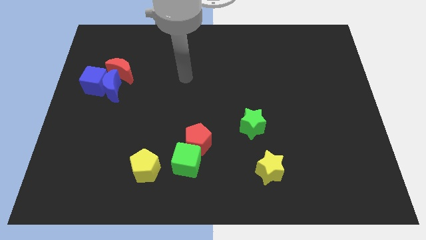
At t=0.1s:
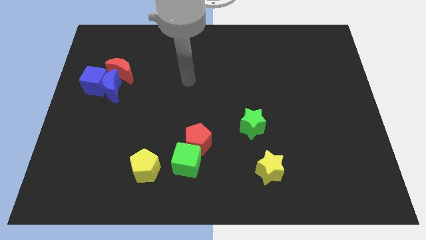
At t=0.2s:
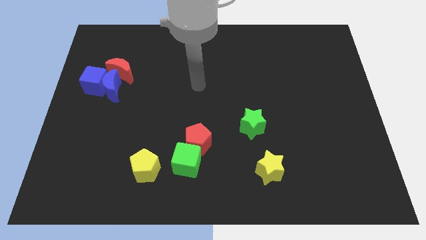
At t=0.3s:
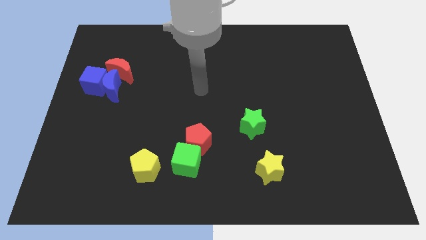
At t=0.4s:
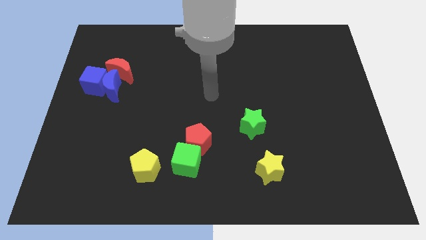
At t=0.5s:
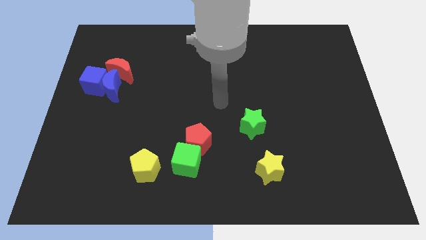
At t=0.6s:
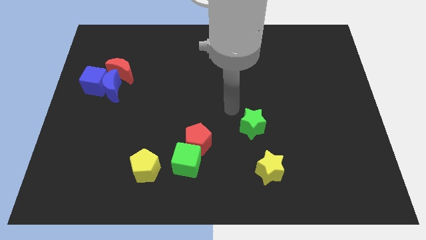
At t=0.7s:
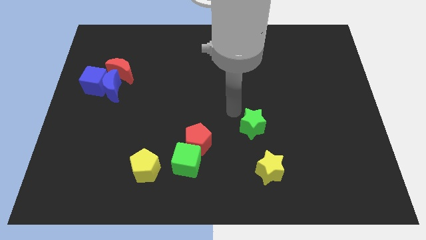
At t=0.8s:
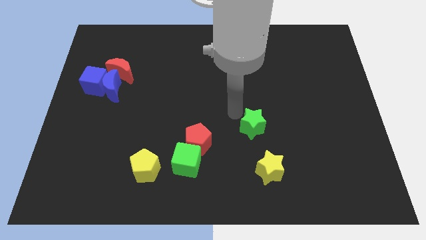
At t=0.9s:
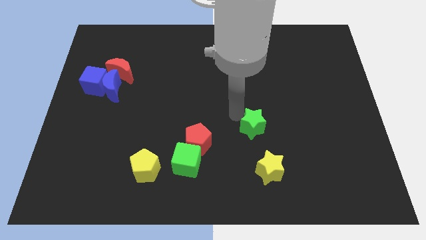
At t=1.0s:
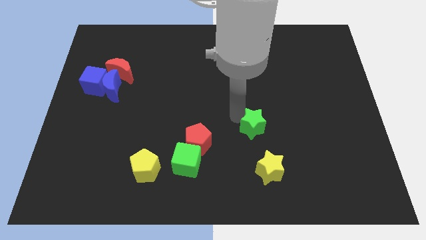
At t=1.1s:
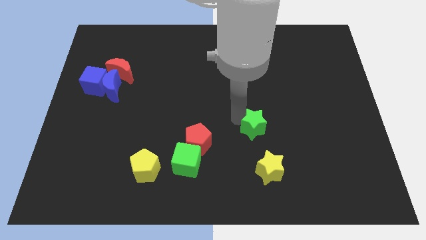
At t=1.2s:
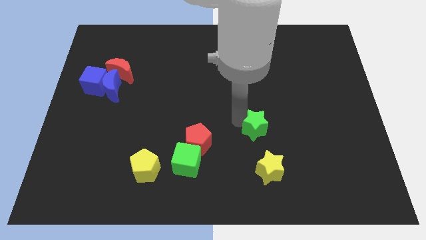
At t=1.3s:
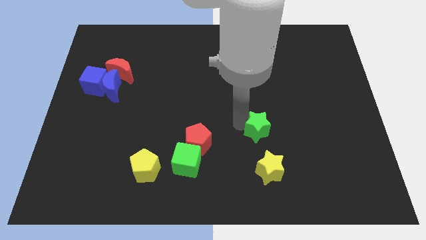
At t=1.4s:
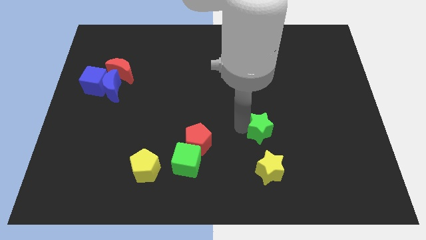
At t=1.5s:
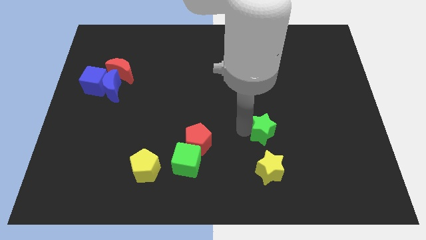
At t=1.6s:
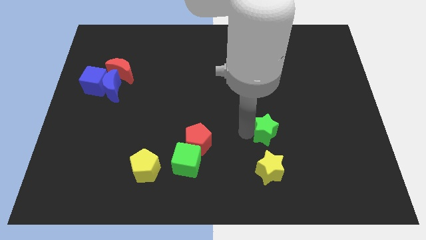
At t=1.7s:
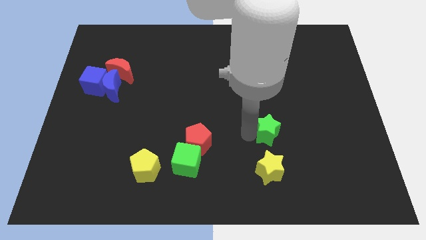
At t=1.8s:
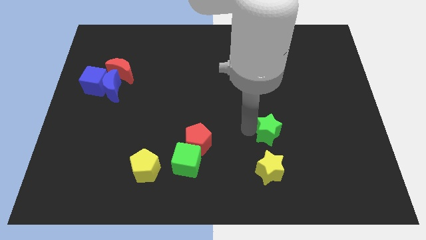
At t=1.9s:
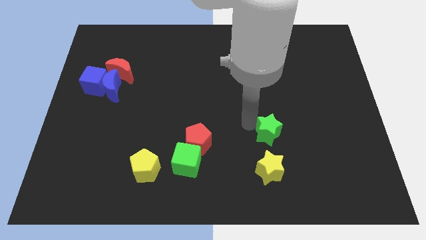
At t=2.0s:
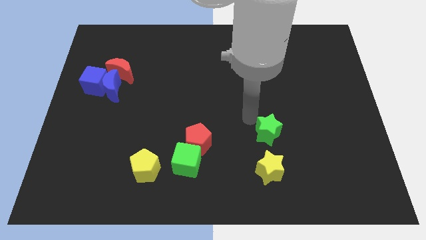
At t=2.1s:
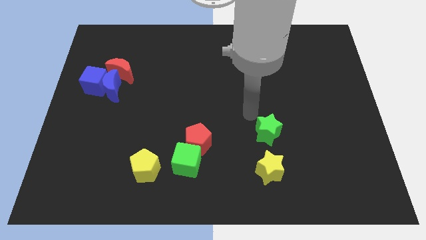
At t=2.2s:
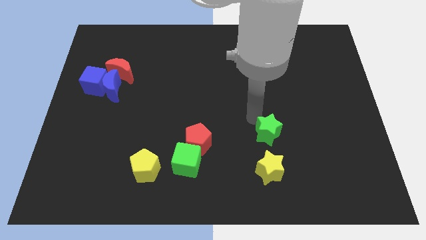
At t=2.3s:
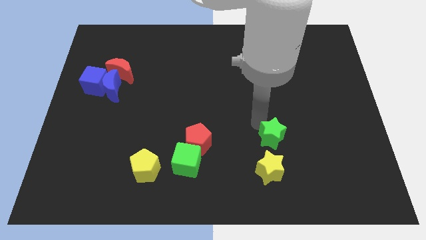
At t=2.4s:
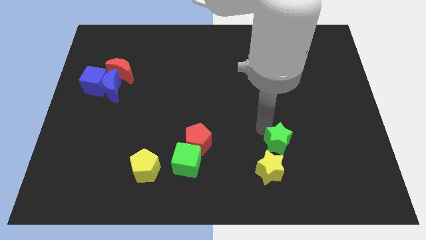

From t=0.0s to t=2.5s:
move the green star a little bit downwards and to the right

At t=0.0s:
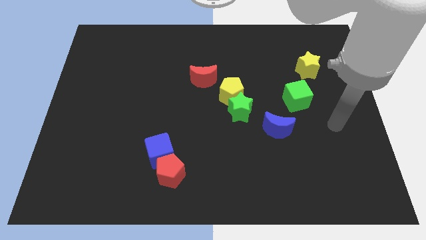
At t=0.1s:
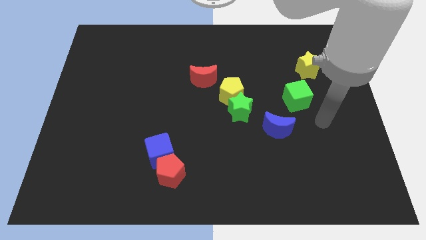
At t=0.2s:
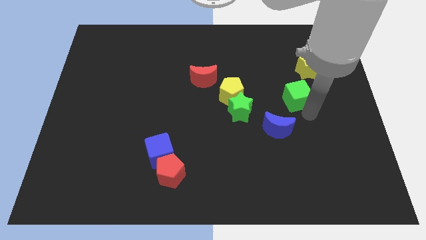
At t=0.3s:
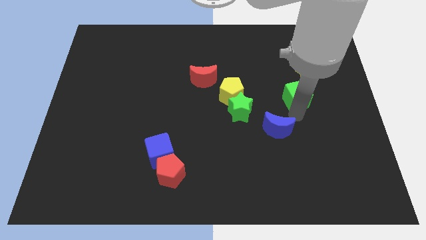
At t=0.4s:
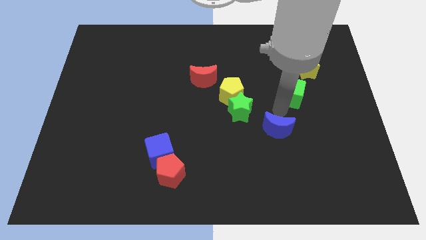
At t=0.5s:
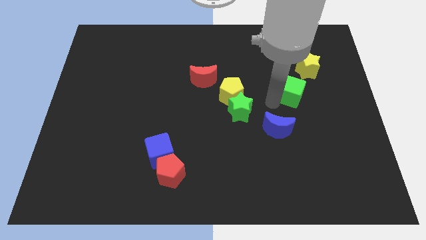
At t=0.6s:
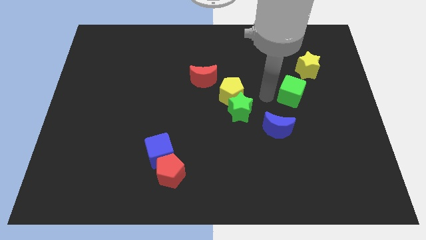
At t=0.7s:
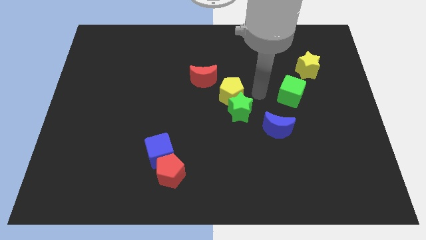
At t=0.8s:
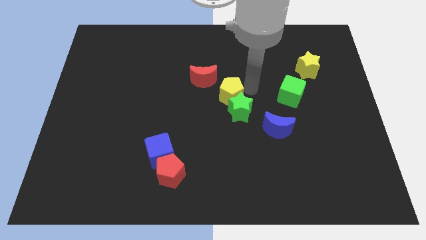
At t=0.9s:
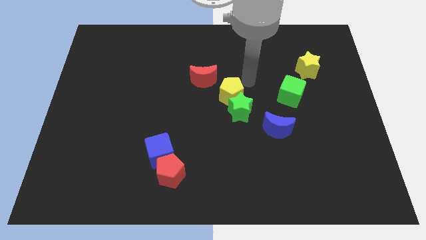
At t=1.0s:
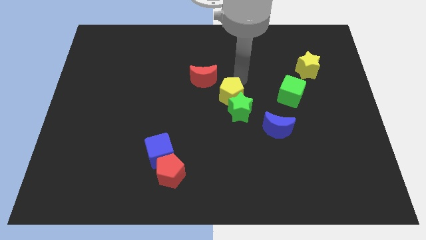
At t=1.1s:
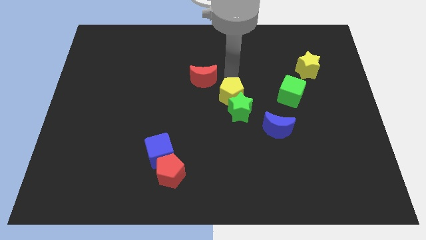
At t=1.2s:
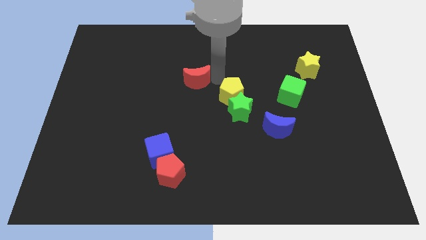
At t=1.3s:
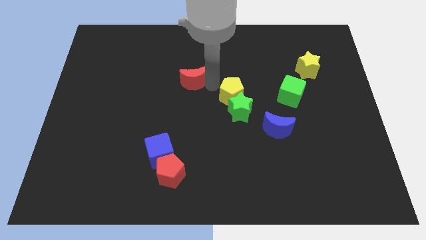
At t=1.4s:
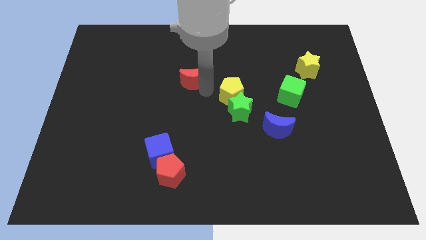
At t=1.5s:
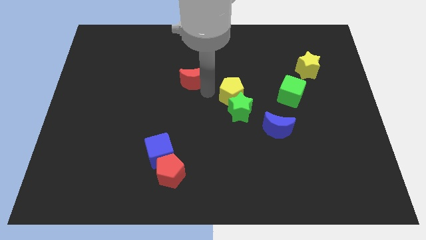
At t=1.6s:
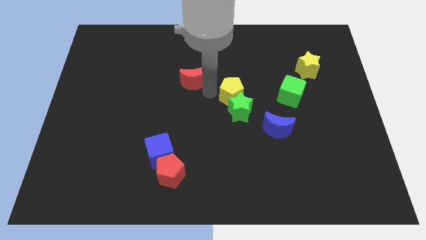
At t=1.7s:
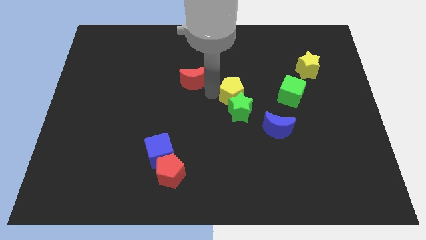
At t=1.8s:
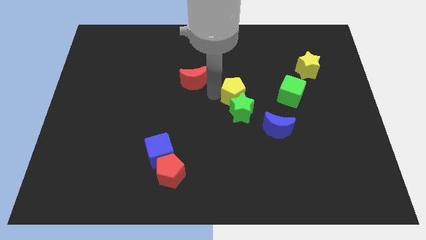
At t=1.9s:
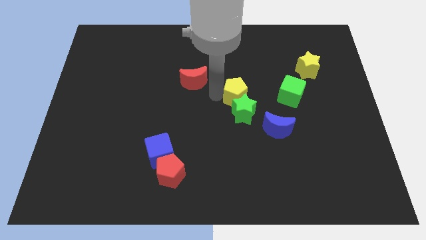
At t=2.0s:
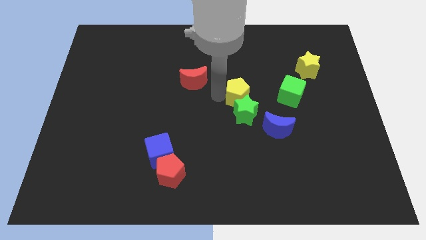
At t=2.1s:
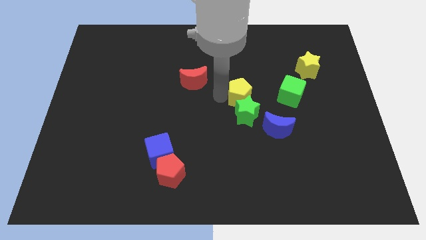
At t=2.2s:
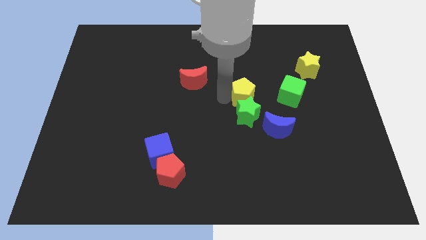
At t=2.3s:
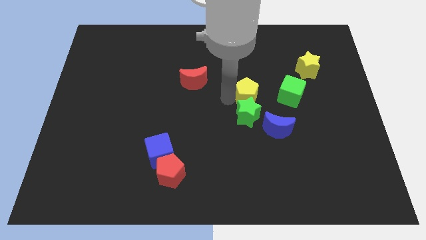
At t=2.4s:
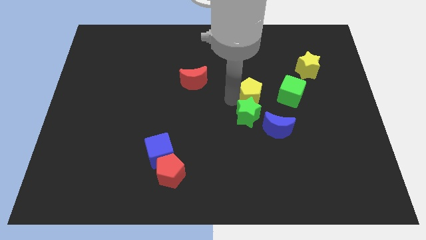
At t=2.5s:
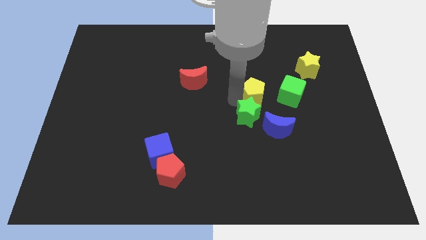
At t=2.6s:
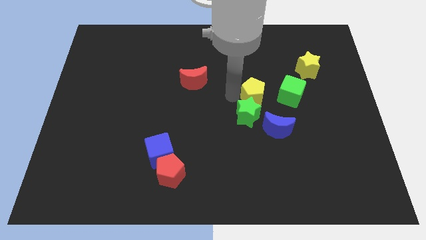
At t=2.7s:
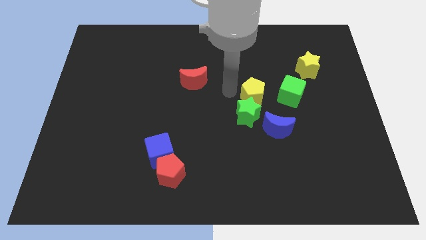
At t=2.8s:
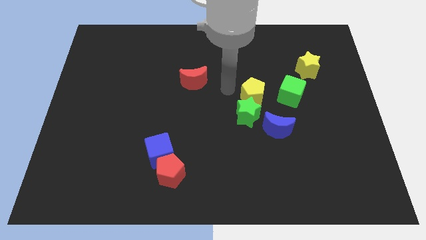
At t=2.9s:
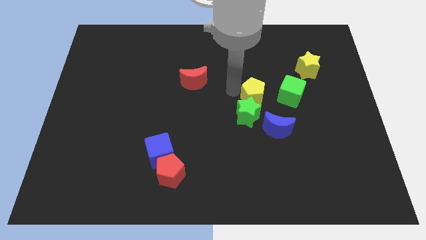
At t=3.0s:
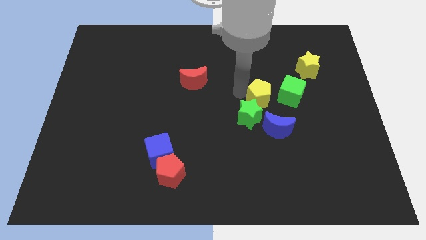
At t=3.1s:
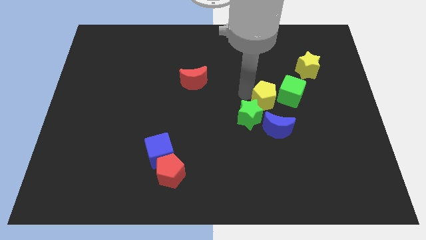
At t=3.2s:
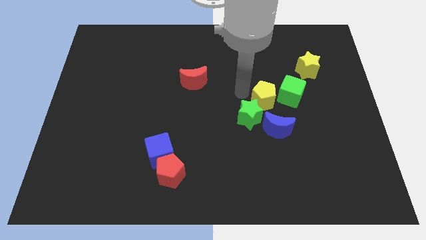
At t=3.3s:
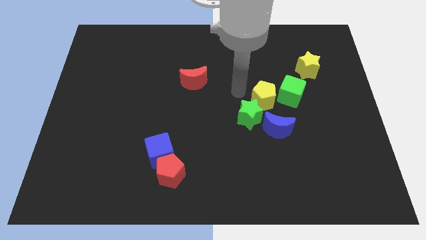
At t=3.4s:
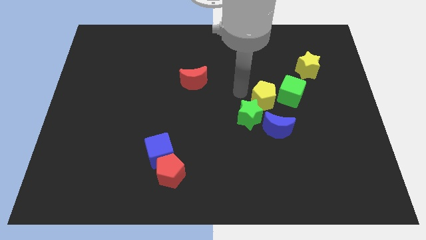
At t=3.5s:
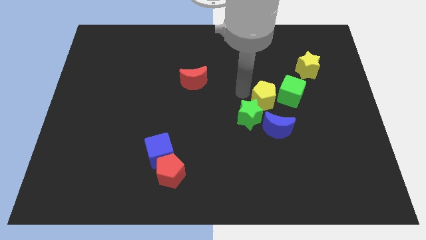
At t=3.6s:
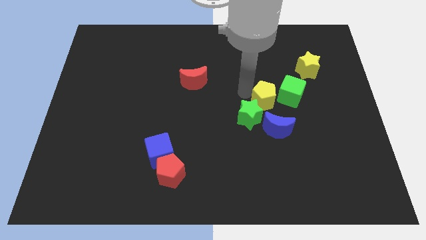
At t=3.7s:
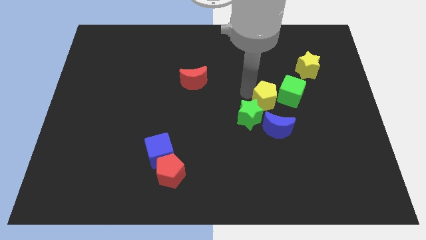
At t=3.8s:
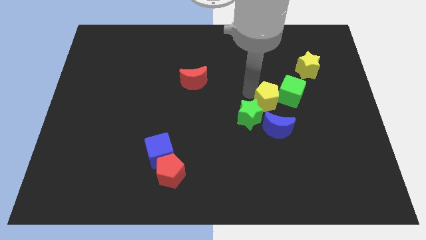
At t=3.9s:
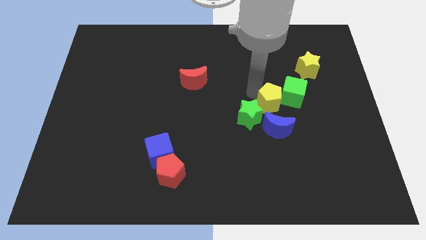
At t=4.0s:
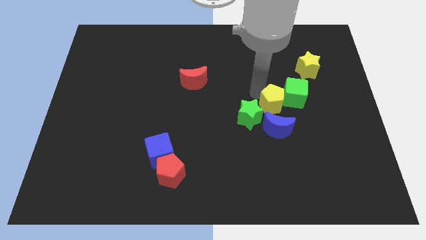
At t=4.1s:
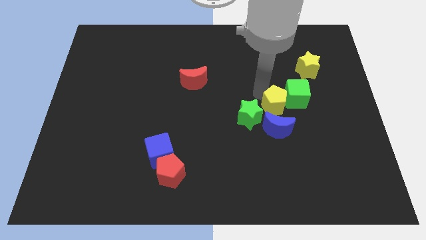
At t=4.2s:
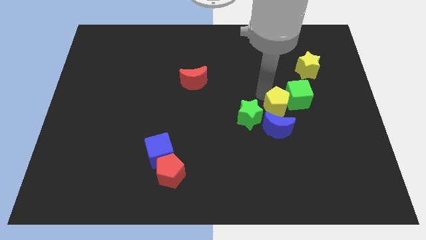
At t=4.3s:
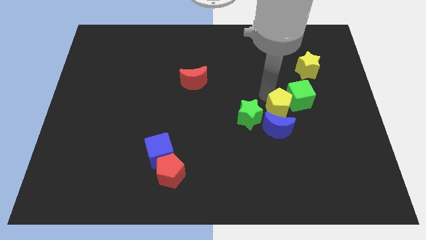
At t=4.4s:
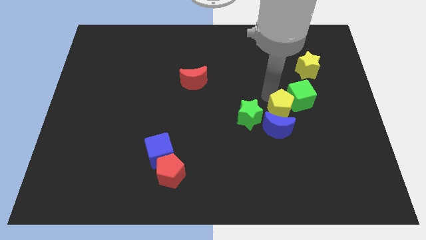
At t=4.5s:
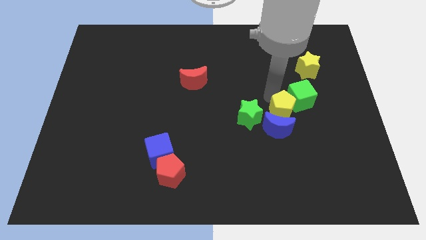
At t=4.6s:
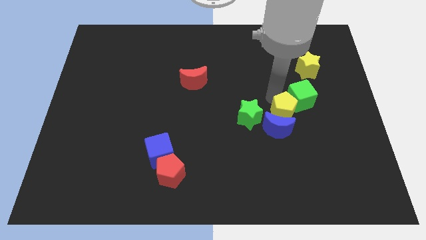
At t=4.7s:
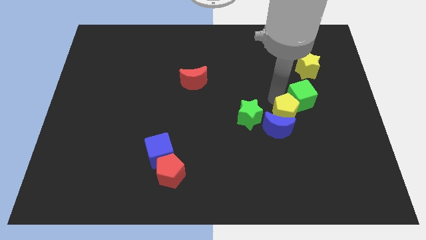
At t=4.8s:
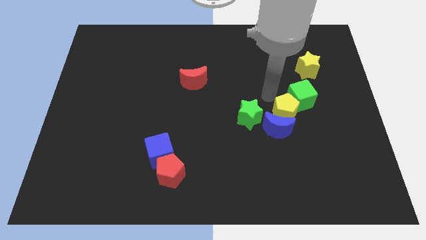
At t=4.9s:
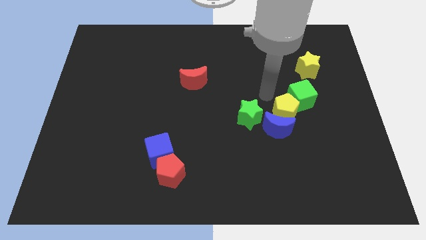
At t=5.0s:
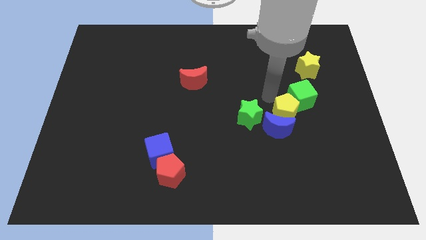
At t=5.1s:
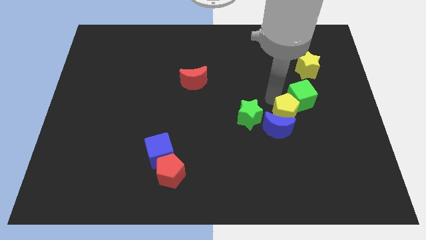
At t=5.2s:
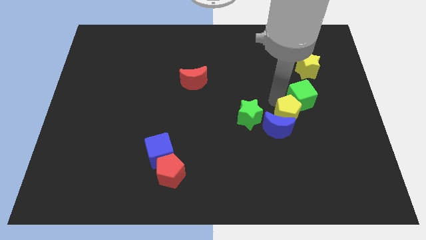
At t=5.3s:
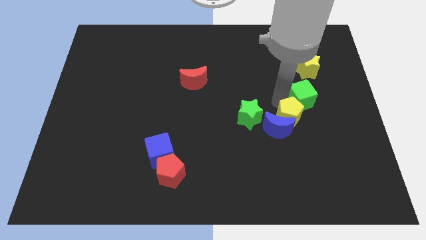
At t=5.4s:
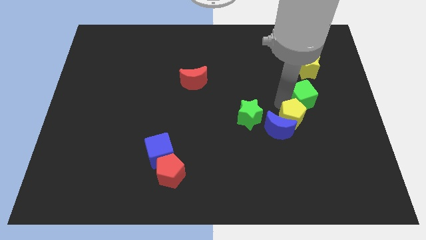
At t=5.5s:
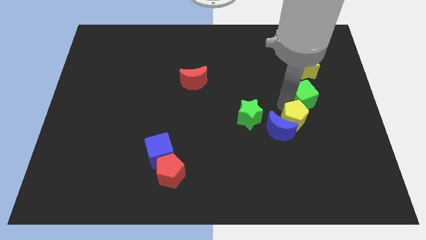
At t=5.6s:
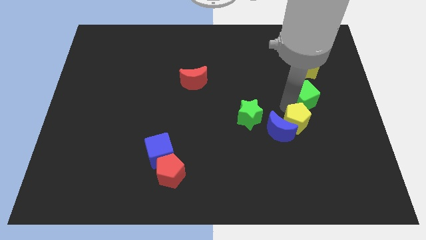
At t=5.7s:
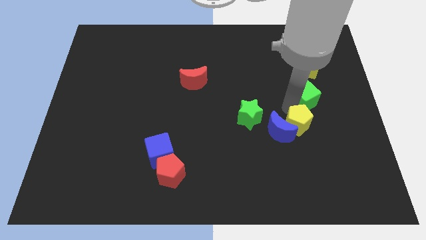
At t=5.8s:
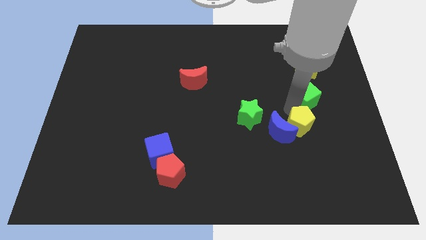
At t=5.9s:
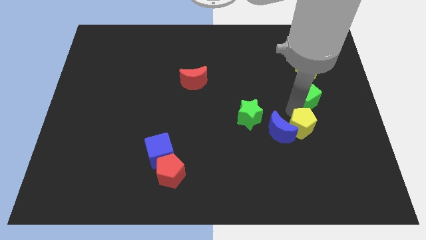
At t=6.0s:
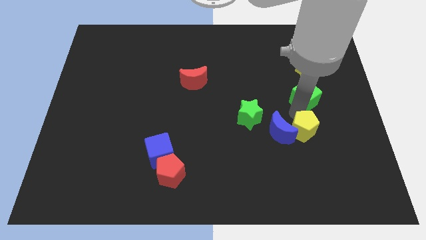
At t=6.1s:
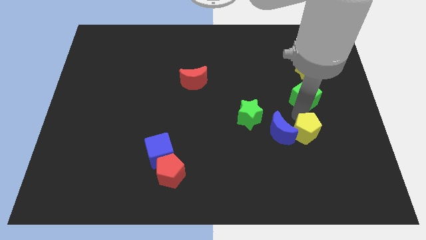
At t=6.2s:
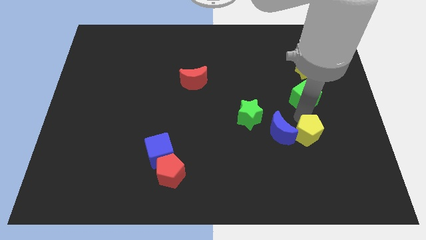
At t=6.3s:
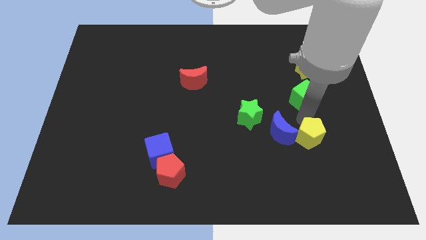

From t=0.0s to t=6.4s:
move the yellow pentagon down and then right
